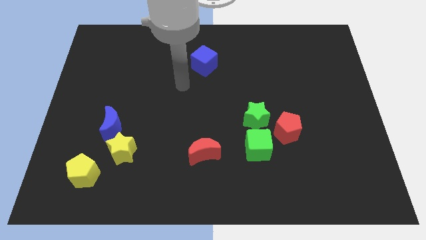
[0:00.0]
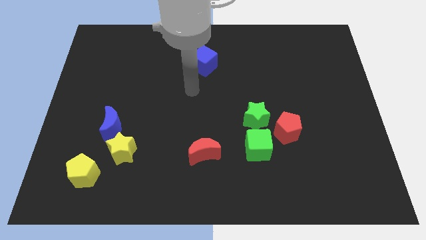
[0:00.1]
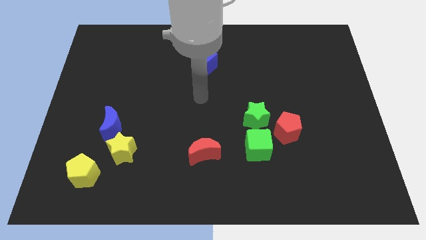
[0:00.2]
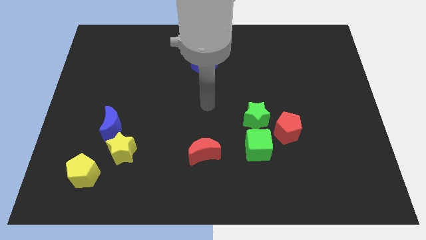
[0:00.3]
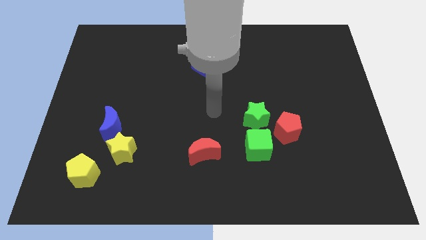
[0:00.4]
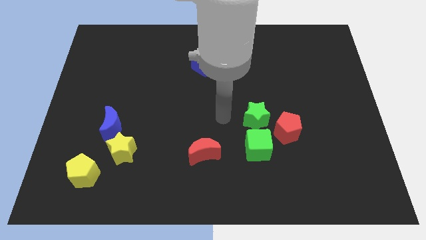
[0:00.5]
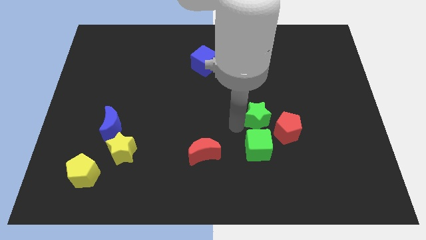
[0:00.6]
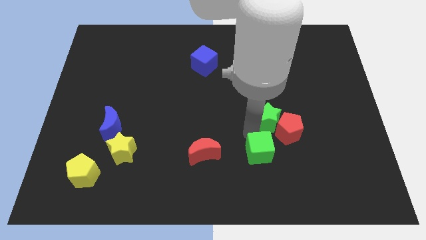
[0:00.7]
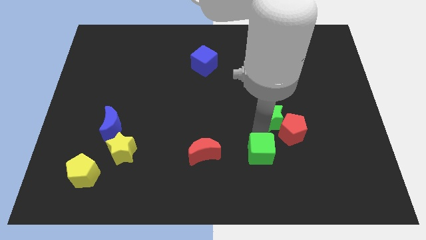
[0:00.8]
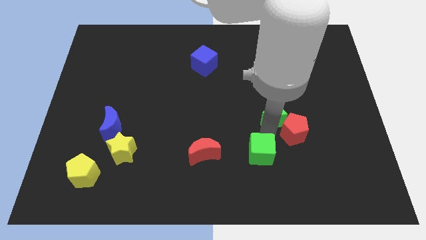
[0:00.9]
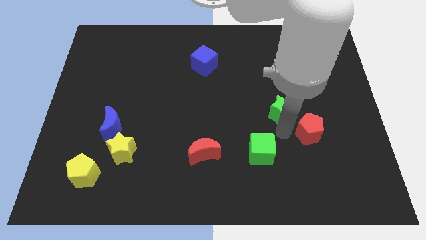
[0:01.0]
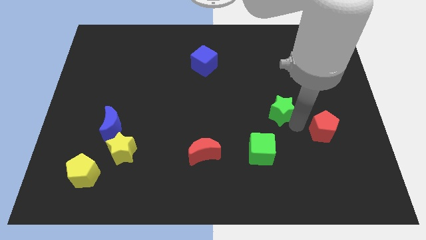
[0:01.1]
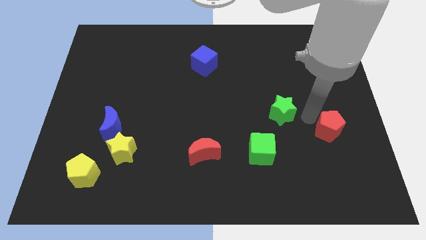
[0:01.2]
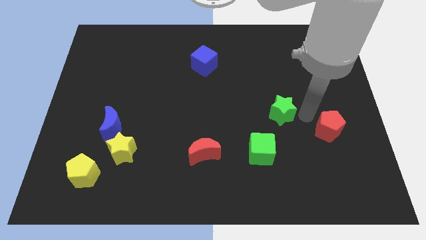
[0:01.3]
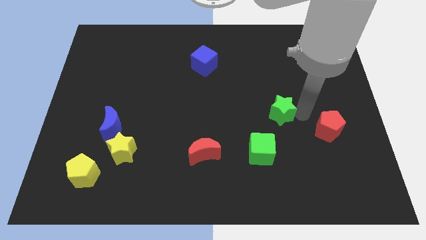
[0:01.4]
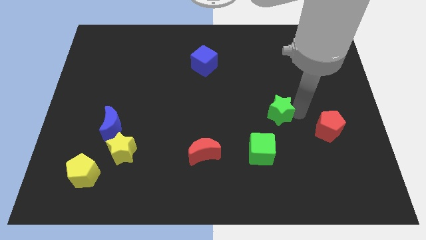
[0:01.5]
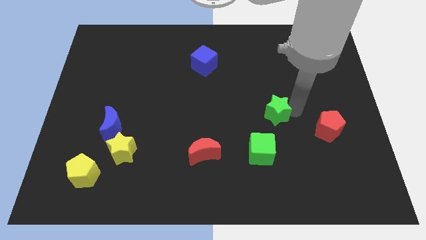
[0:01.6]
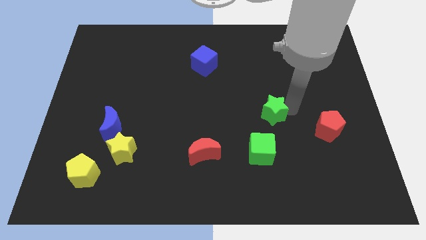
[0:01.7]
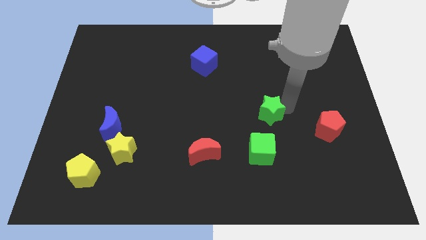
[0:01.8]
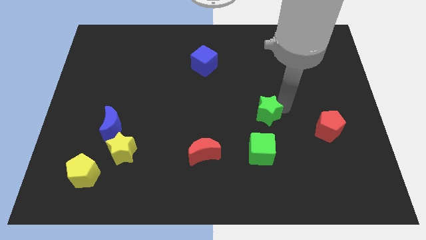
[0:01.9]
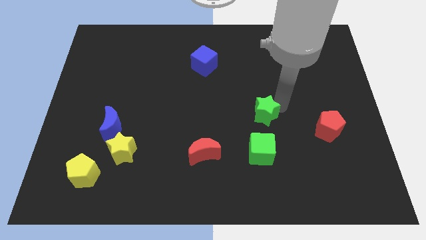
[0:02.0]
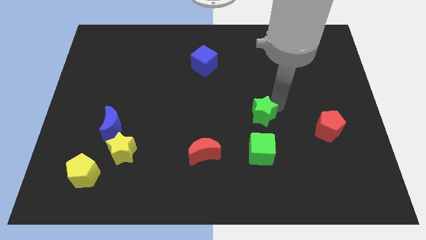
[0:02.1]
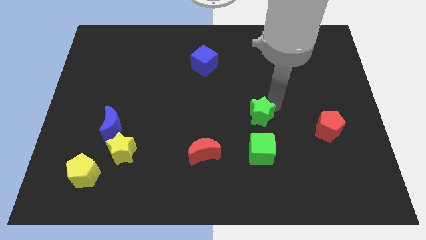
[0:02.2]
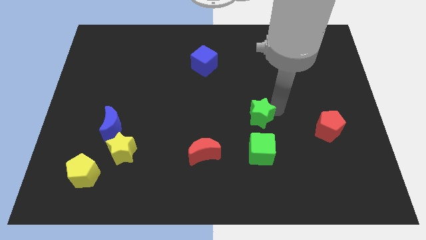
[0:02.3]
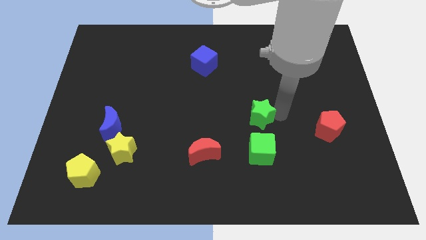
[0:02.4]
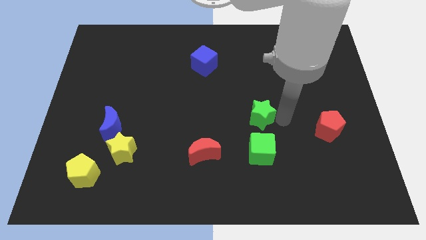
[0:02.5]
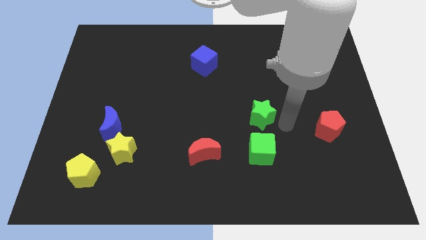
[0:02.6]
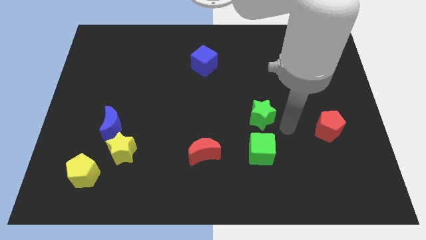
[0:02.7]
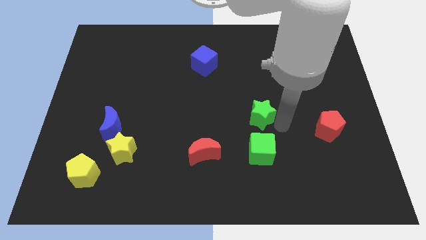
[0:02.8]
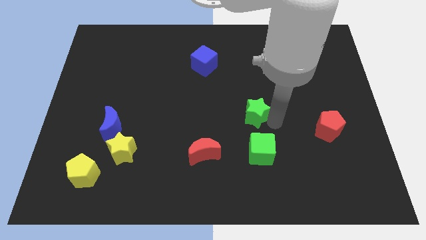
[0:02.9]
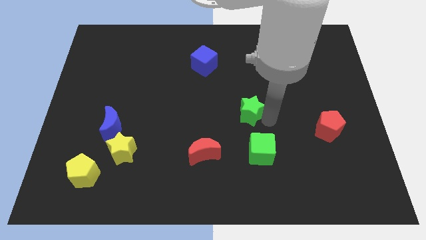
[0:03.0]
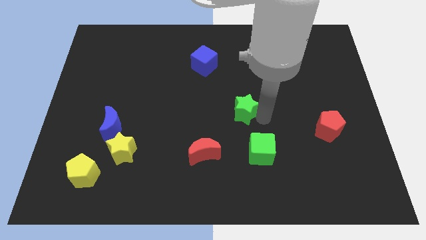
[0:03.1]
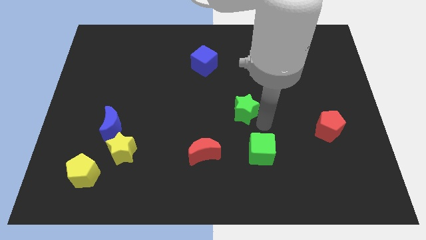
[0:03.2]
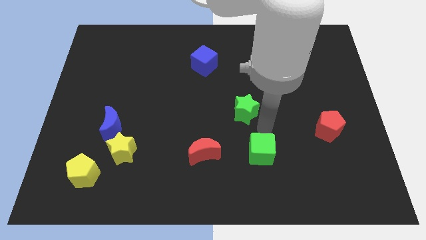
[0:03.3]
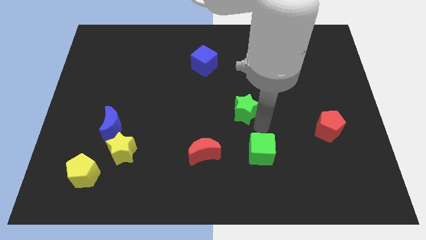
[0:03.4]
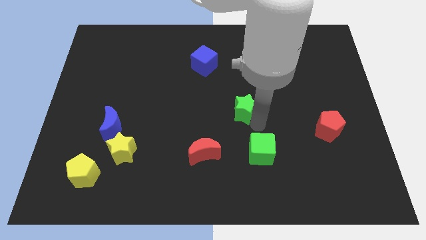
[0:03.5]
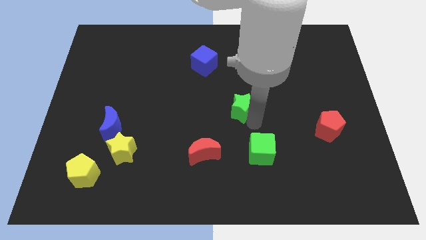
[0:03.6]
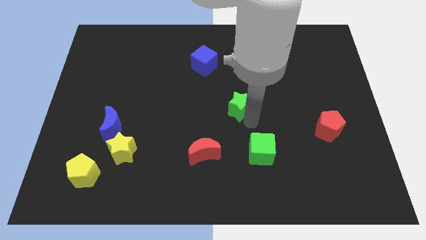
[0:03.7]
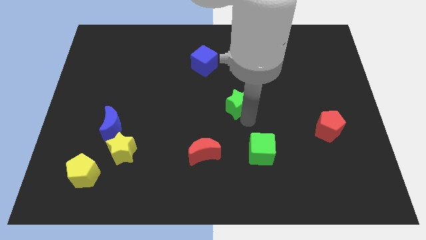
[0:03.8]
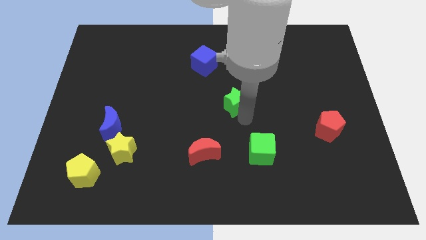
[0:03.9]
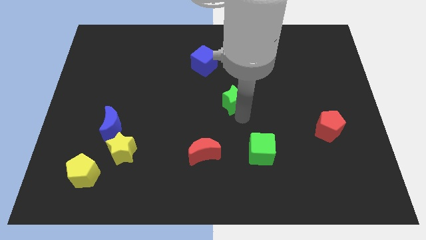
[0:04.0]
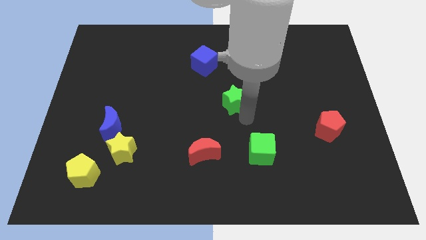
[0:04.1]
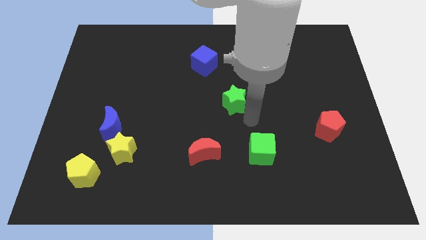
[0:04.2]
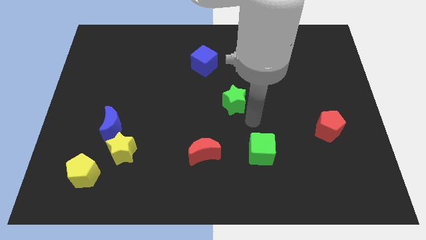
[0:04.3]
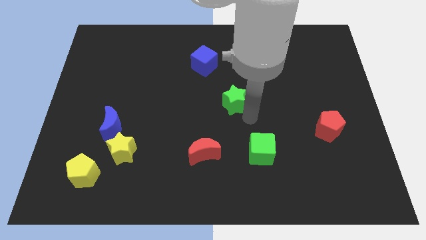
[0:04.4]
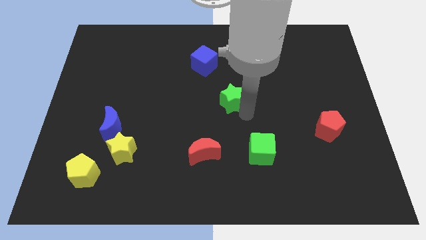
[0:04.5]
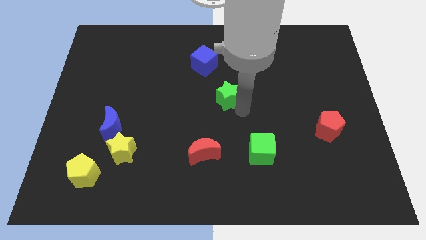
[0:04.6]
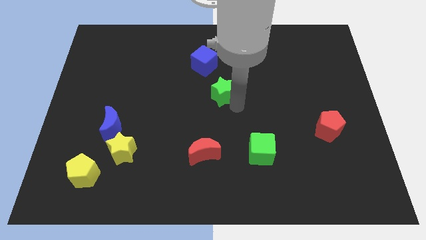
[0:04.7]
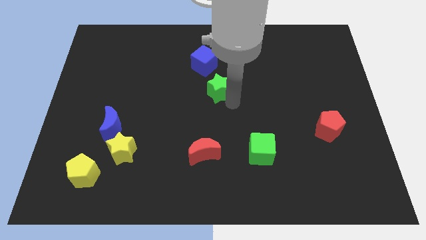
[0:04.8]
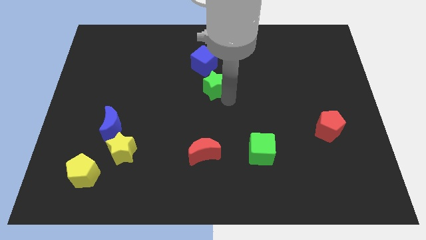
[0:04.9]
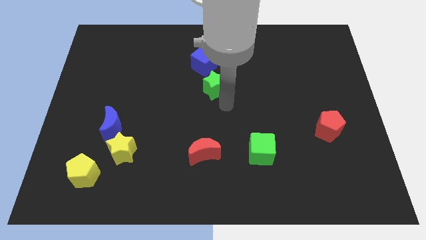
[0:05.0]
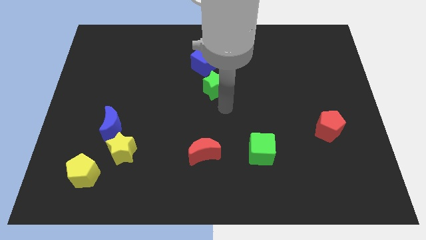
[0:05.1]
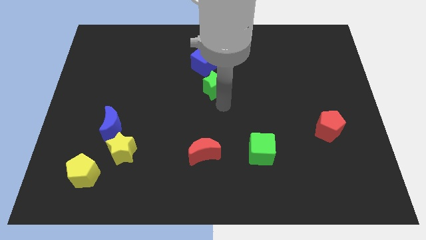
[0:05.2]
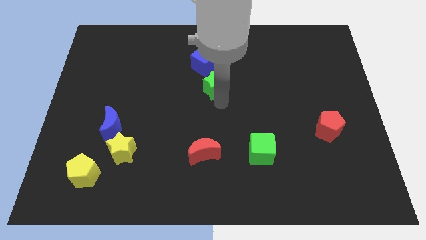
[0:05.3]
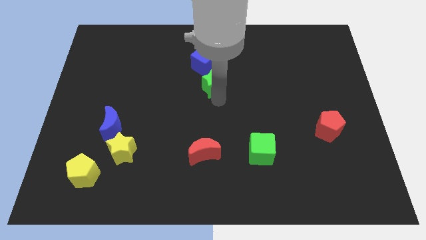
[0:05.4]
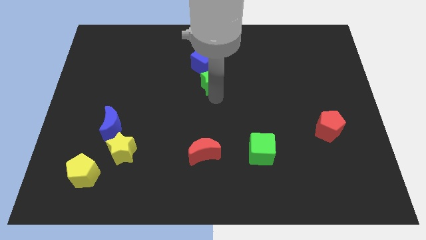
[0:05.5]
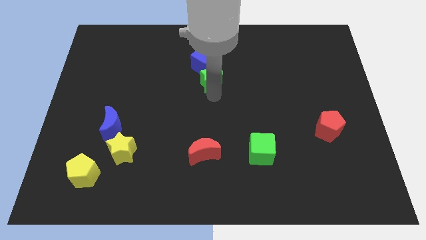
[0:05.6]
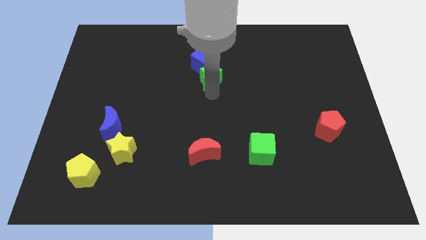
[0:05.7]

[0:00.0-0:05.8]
push the green star next to the blue cube

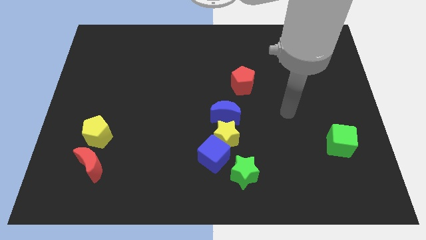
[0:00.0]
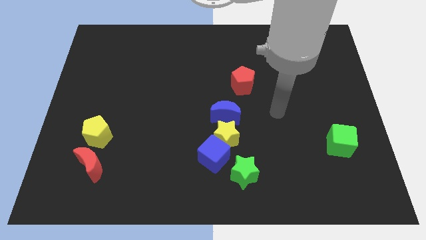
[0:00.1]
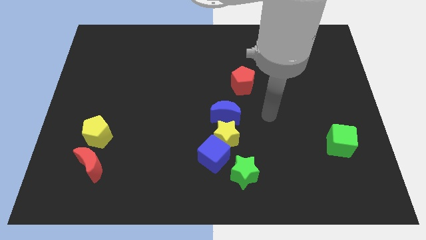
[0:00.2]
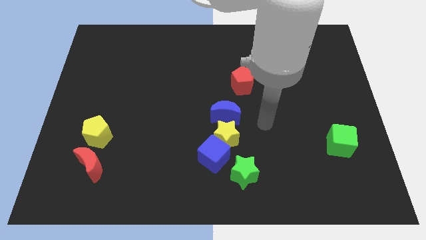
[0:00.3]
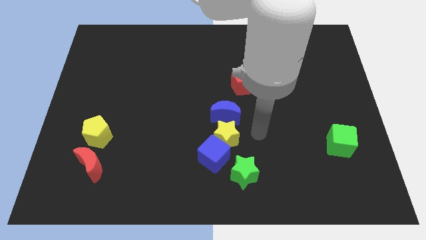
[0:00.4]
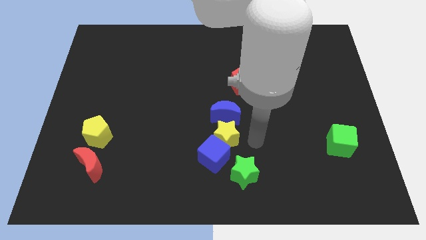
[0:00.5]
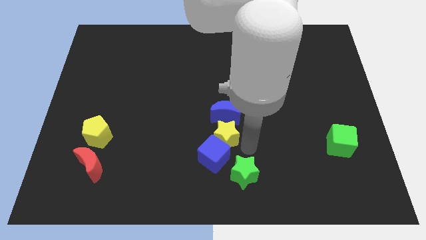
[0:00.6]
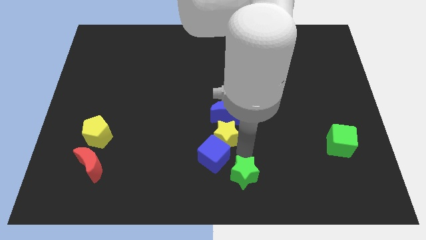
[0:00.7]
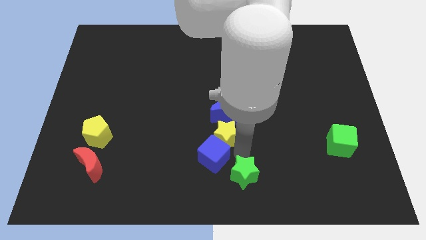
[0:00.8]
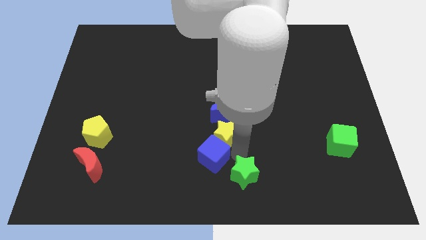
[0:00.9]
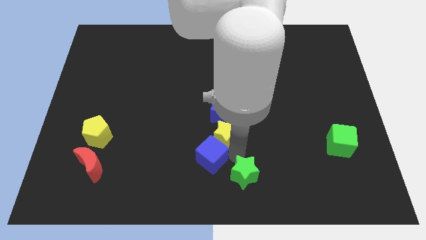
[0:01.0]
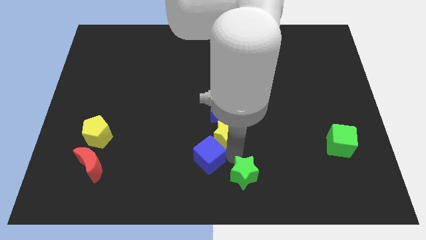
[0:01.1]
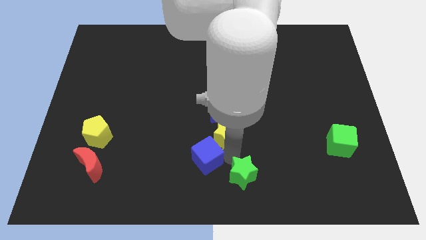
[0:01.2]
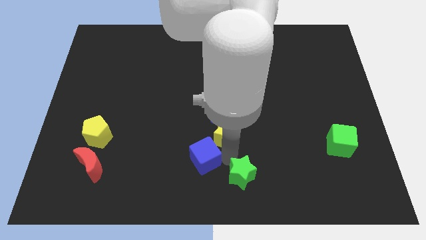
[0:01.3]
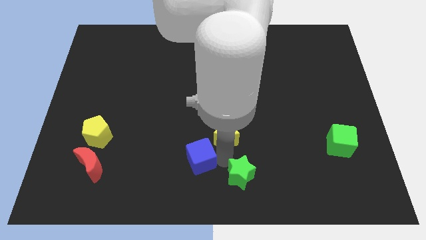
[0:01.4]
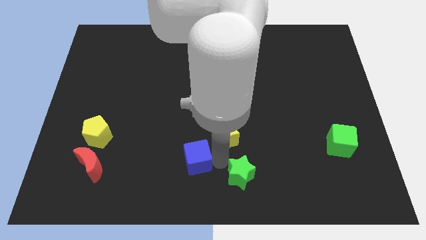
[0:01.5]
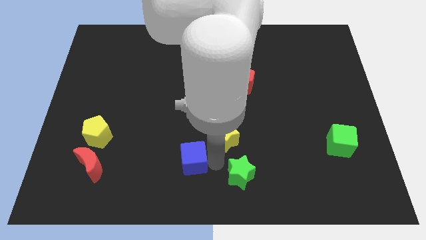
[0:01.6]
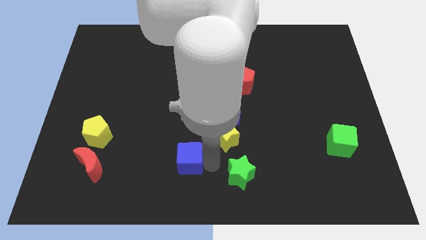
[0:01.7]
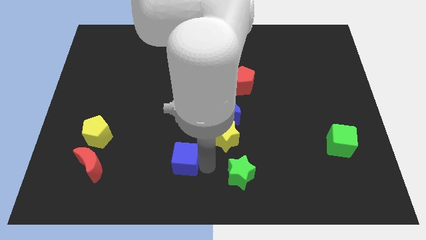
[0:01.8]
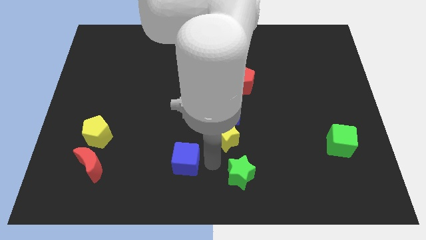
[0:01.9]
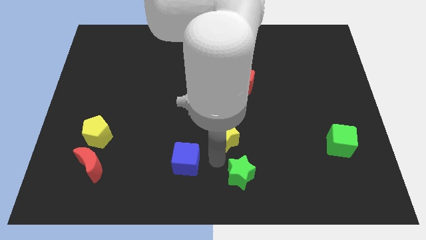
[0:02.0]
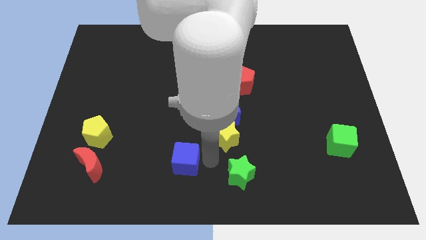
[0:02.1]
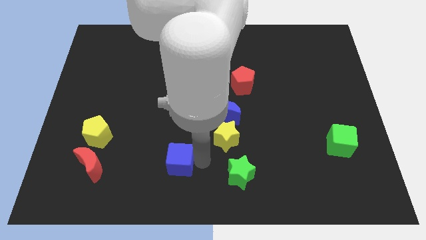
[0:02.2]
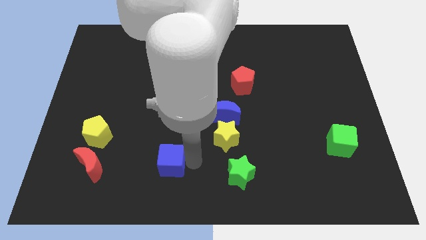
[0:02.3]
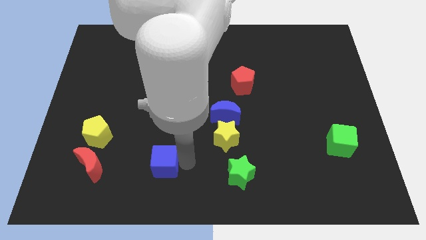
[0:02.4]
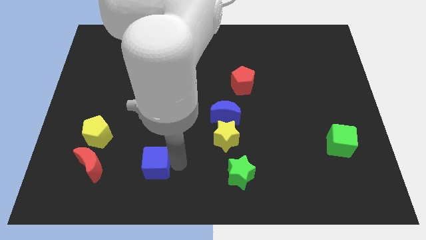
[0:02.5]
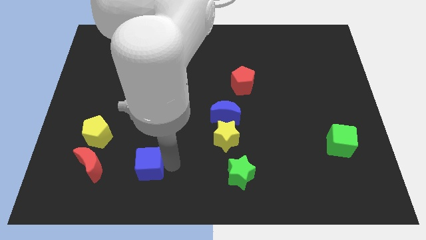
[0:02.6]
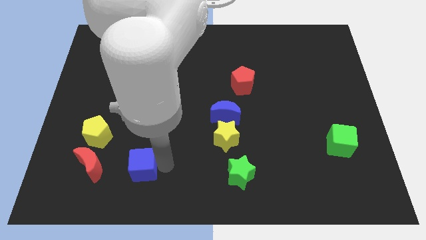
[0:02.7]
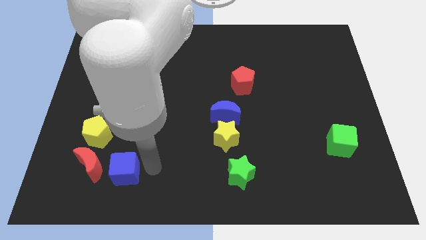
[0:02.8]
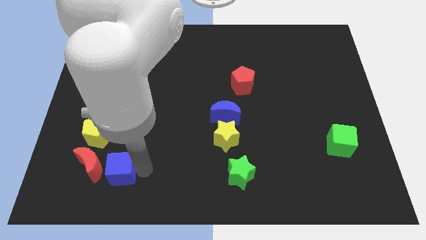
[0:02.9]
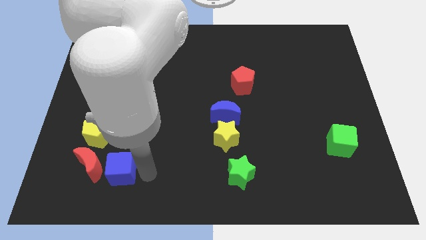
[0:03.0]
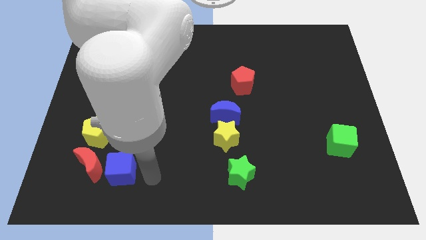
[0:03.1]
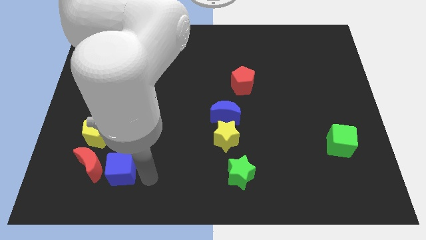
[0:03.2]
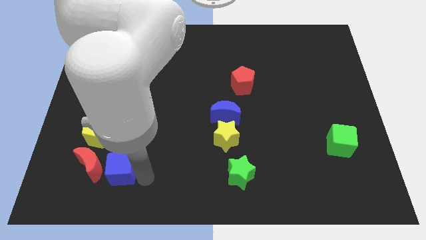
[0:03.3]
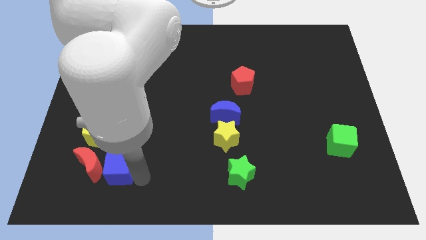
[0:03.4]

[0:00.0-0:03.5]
move the blue cube to the red moon
